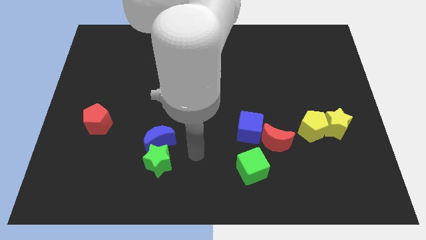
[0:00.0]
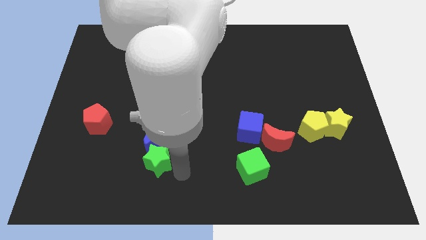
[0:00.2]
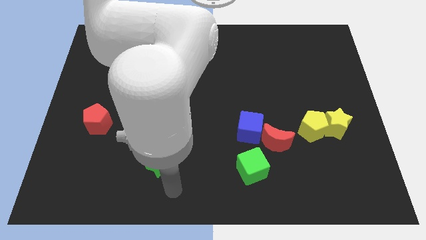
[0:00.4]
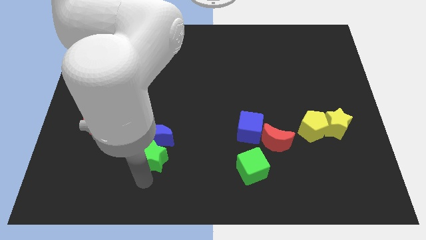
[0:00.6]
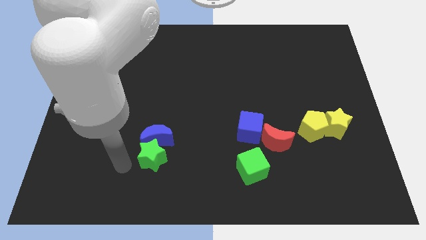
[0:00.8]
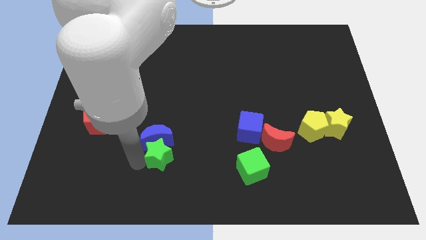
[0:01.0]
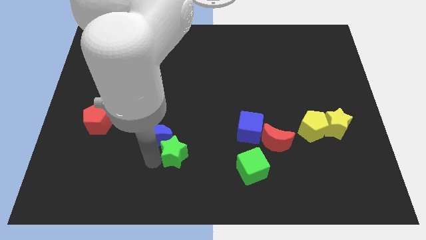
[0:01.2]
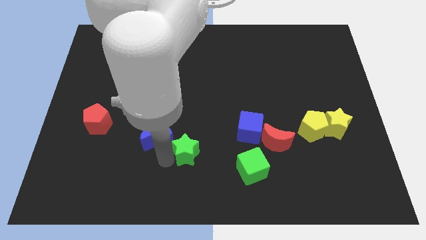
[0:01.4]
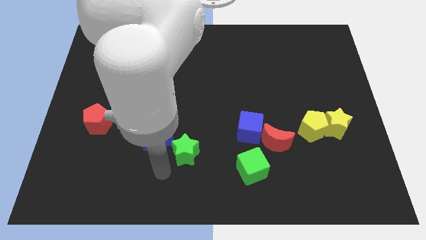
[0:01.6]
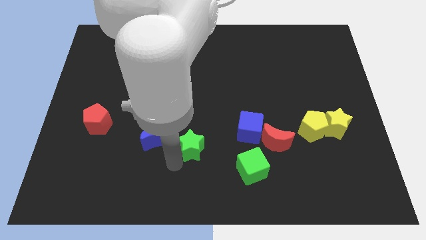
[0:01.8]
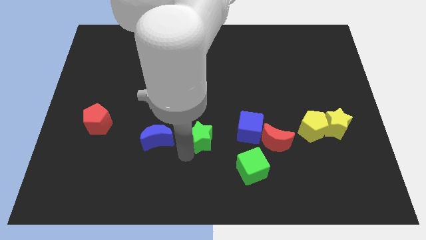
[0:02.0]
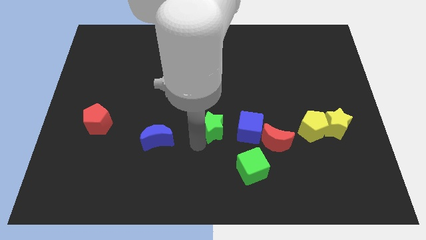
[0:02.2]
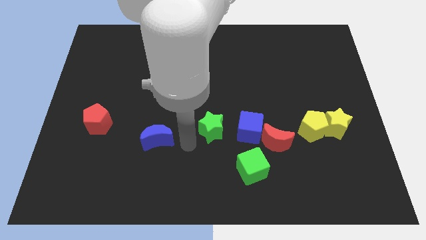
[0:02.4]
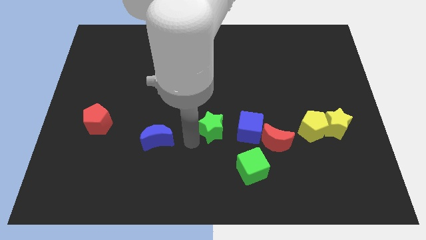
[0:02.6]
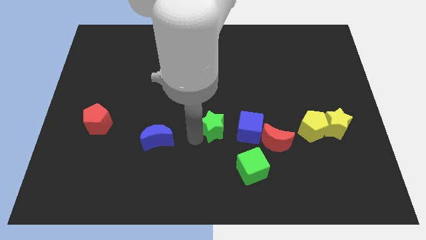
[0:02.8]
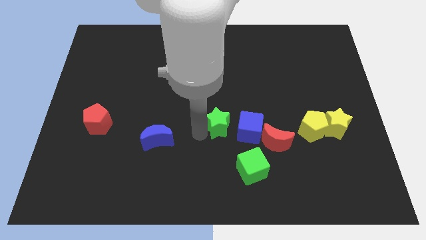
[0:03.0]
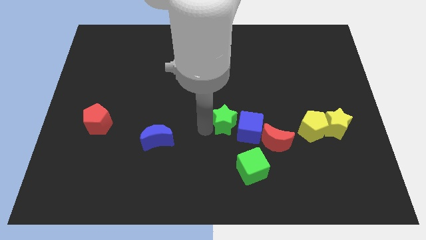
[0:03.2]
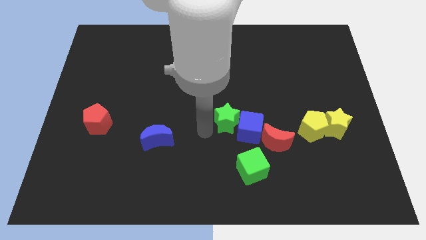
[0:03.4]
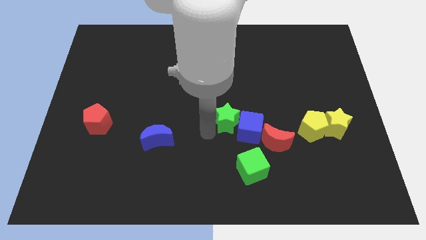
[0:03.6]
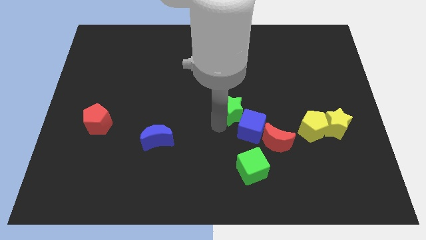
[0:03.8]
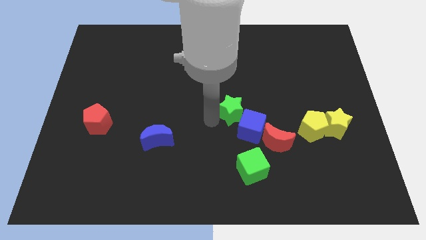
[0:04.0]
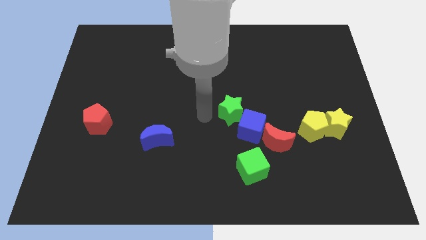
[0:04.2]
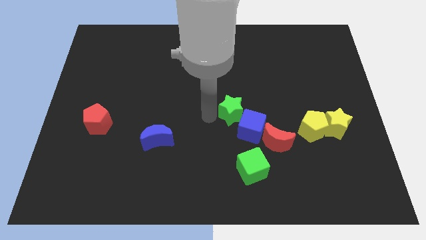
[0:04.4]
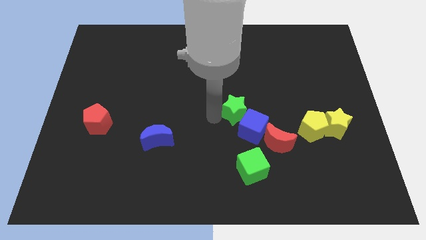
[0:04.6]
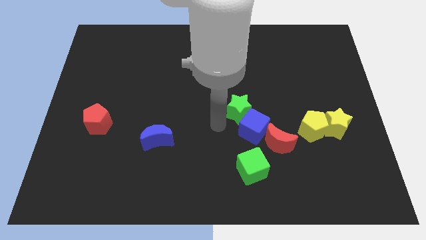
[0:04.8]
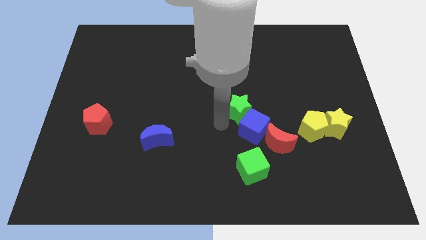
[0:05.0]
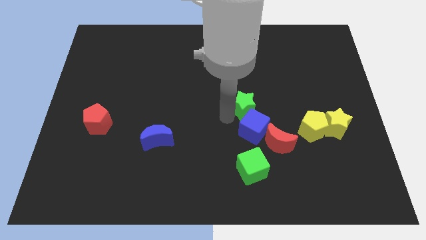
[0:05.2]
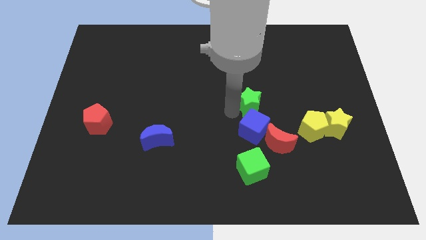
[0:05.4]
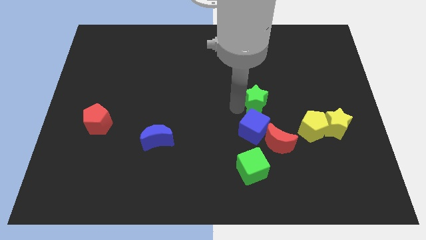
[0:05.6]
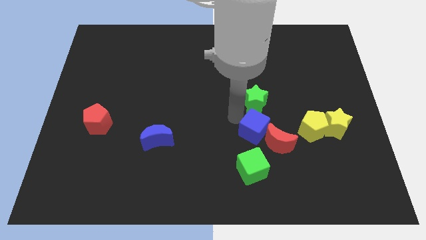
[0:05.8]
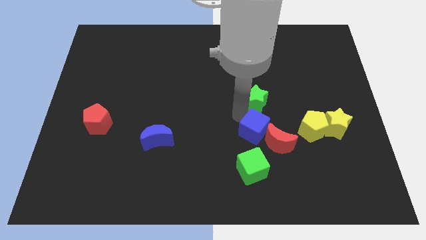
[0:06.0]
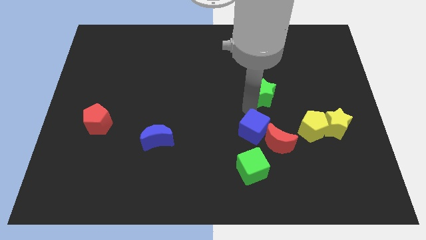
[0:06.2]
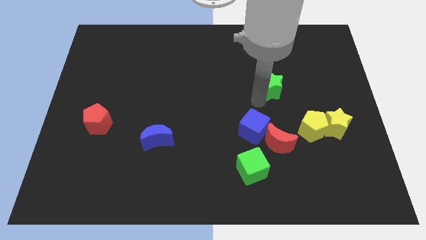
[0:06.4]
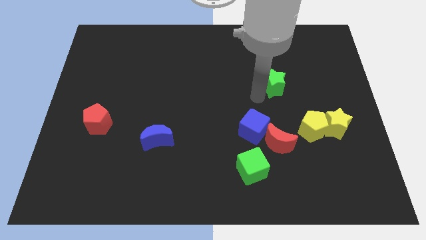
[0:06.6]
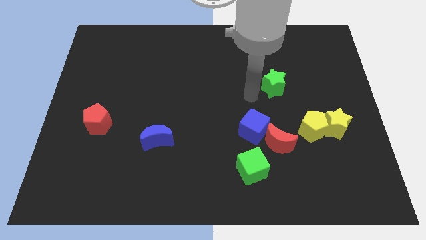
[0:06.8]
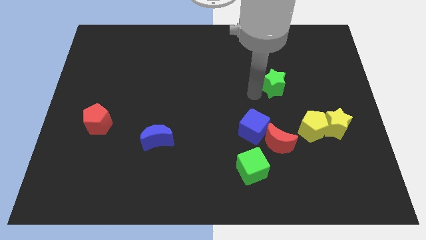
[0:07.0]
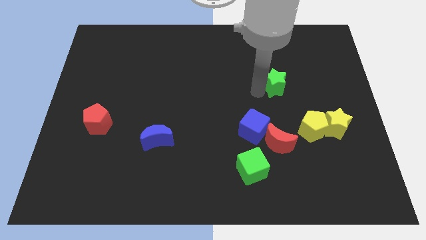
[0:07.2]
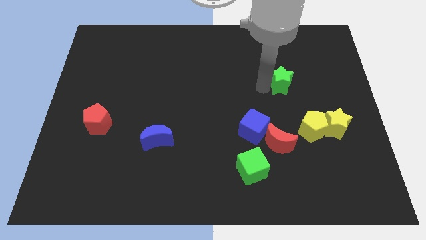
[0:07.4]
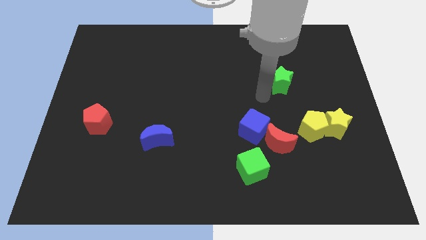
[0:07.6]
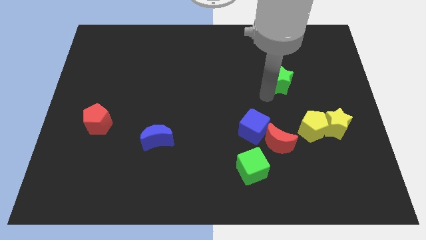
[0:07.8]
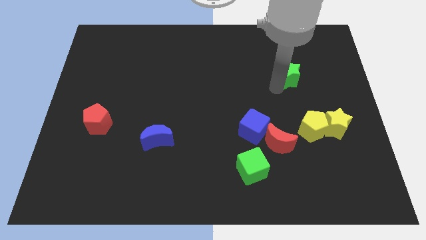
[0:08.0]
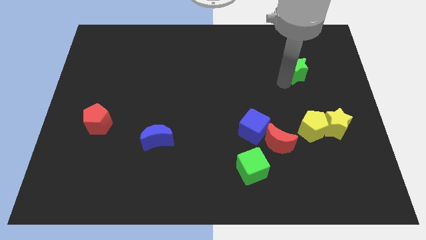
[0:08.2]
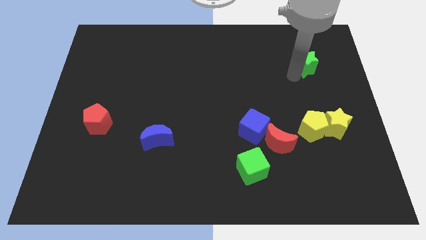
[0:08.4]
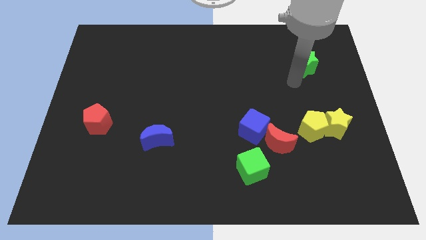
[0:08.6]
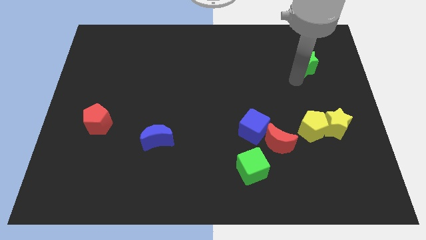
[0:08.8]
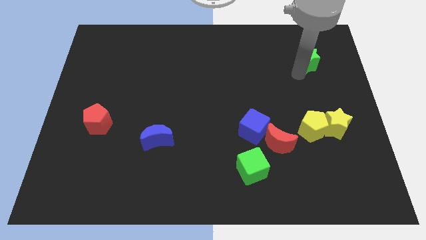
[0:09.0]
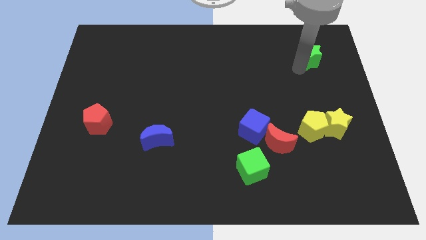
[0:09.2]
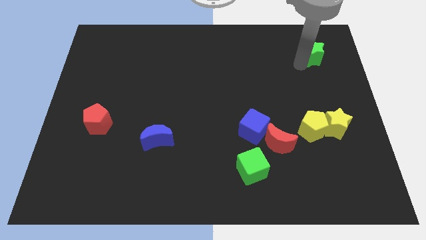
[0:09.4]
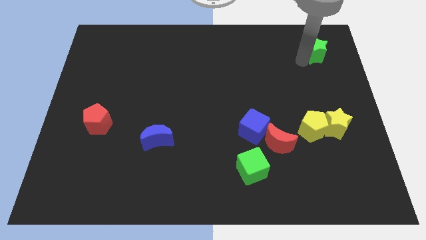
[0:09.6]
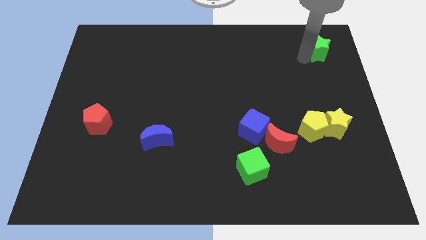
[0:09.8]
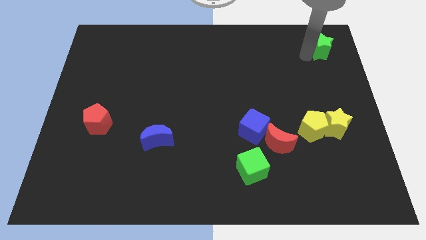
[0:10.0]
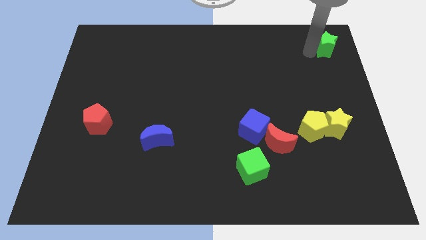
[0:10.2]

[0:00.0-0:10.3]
put the green star to the upper right corner

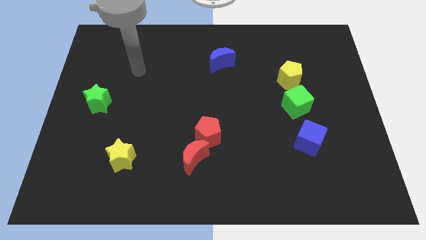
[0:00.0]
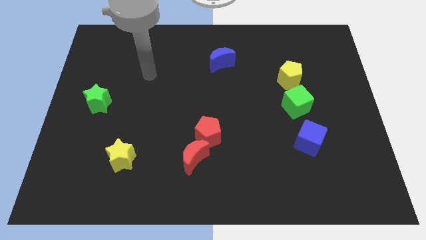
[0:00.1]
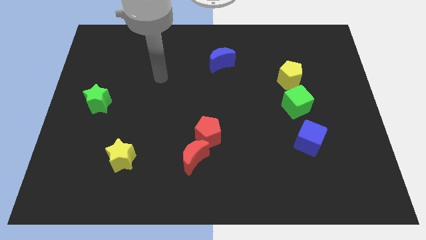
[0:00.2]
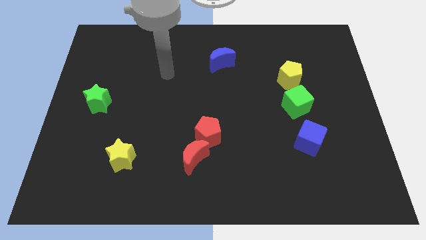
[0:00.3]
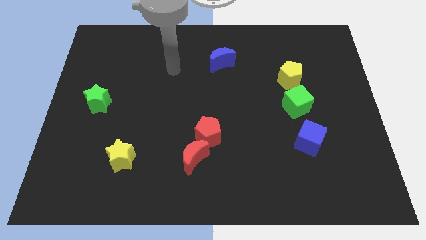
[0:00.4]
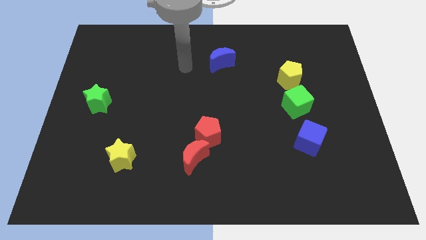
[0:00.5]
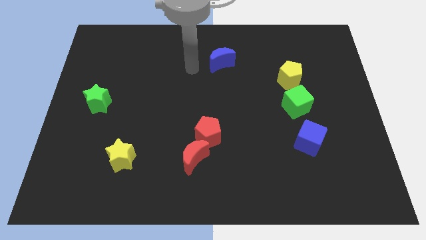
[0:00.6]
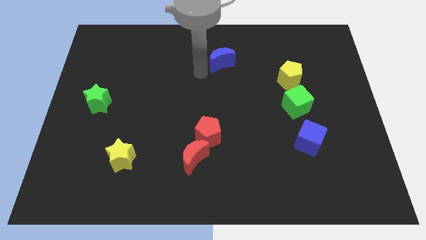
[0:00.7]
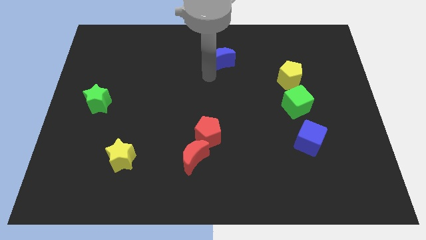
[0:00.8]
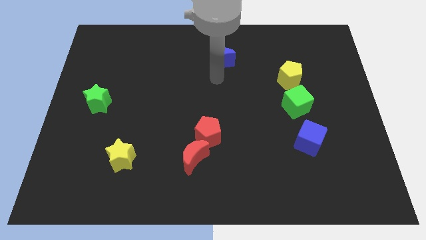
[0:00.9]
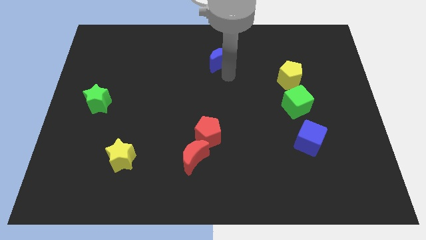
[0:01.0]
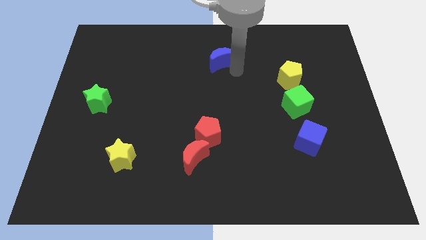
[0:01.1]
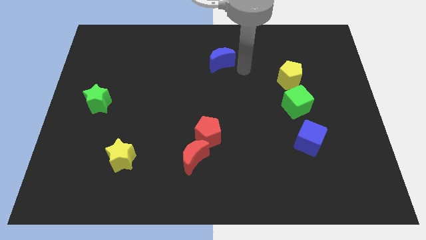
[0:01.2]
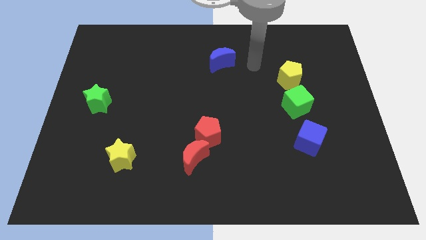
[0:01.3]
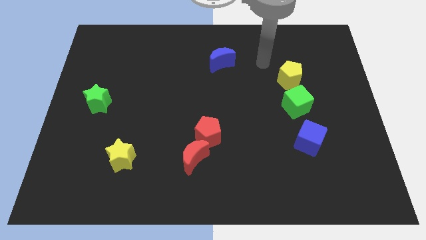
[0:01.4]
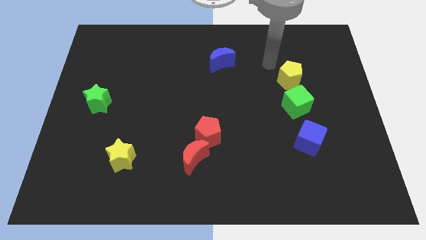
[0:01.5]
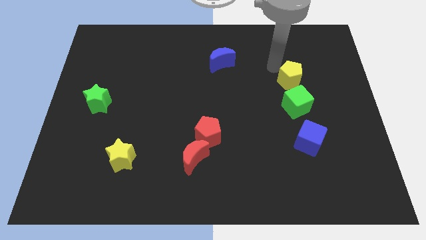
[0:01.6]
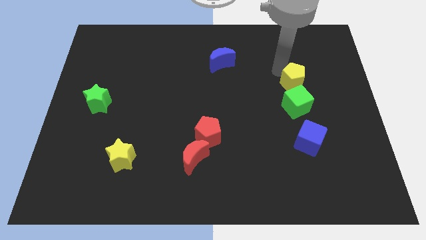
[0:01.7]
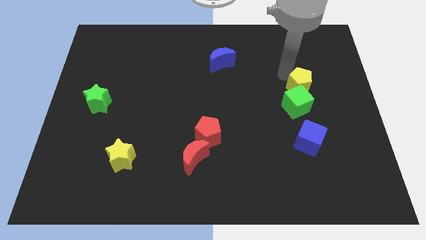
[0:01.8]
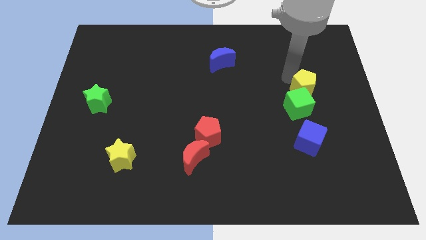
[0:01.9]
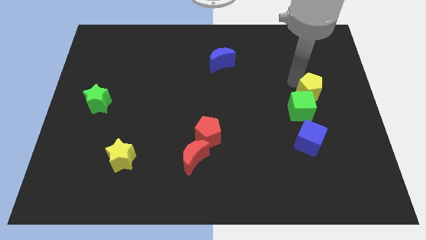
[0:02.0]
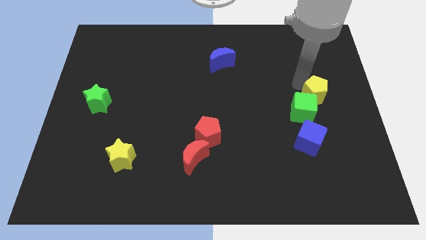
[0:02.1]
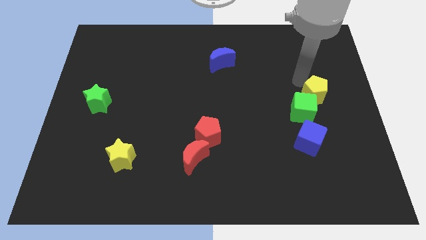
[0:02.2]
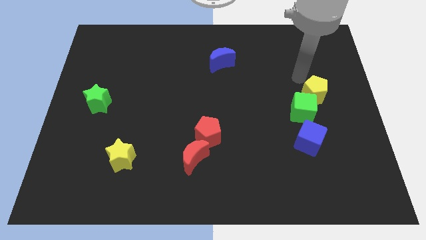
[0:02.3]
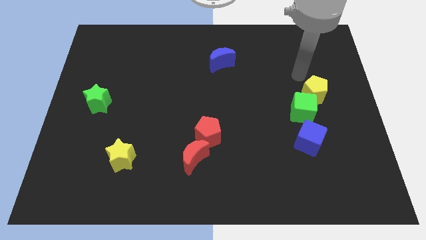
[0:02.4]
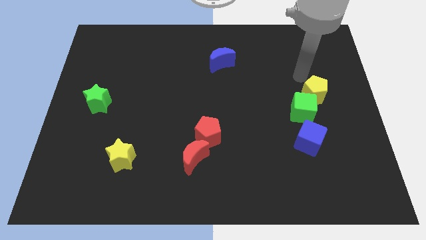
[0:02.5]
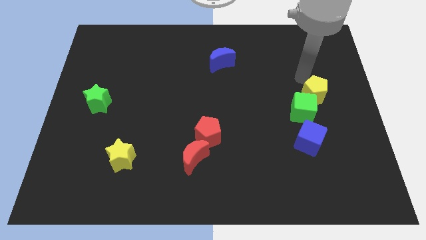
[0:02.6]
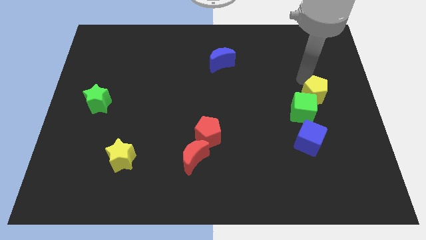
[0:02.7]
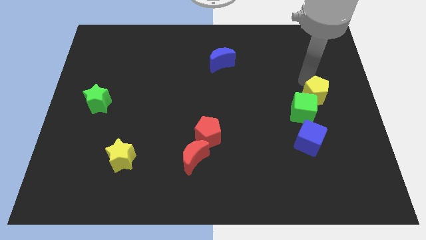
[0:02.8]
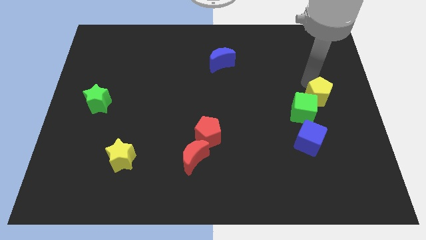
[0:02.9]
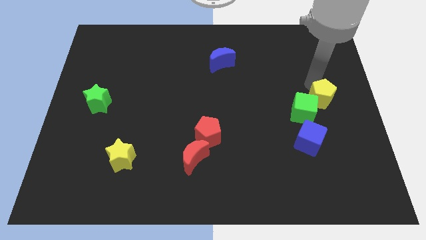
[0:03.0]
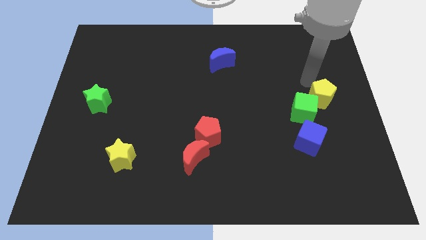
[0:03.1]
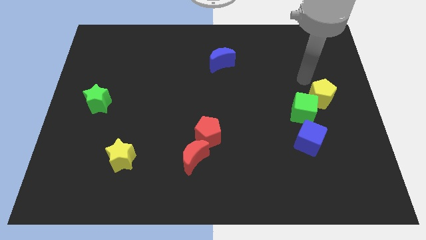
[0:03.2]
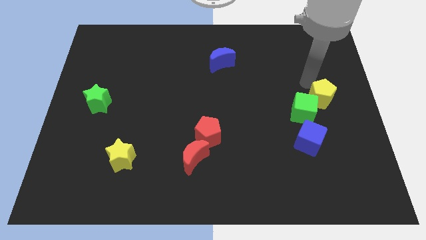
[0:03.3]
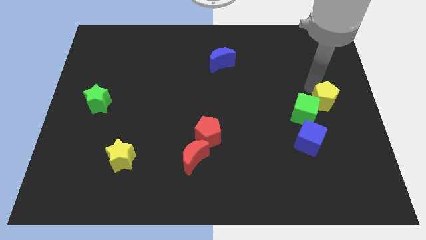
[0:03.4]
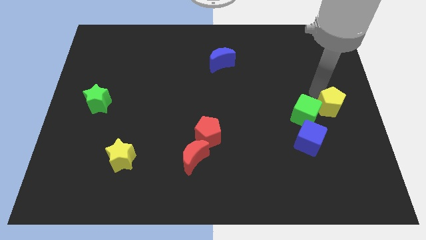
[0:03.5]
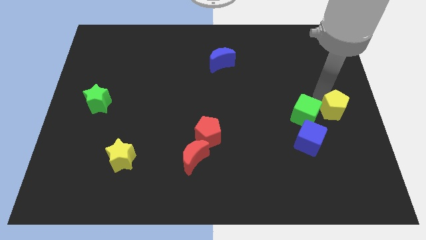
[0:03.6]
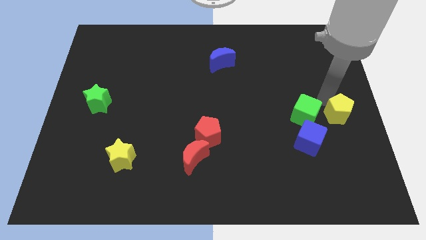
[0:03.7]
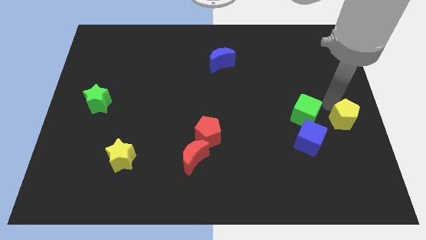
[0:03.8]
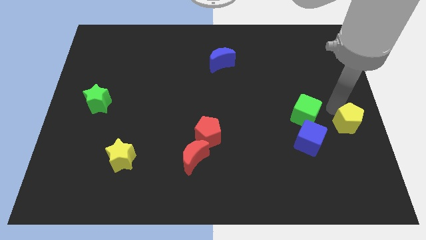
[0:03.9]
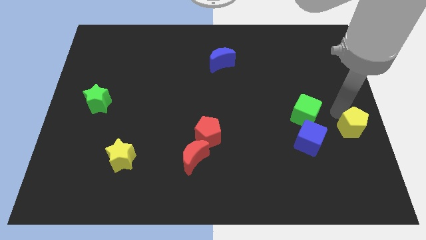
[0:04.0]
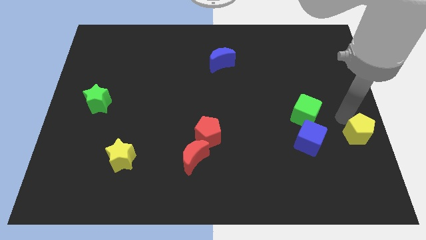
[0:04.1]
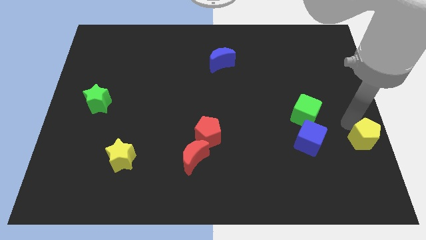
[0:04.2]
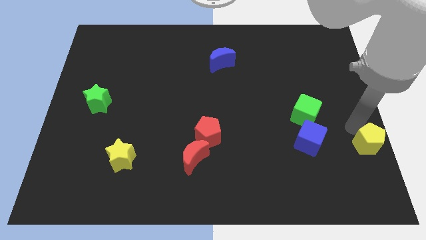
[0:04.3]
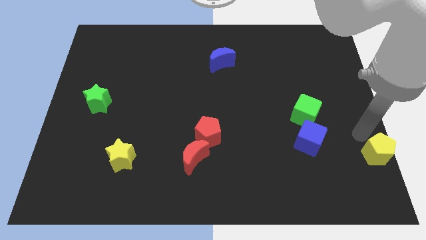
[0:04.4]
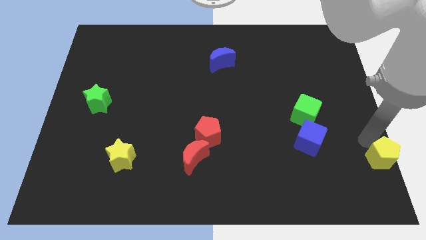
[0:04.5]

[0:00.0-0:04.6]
slide the yellow pentagon to the bottom right corner
